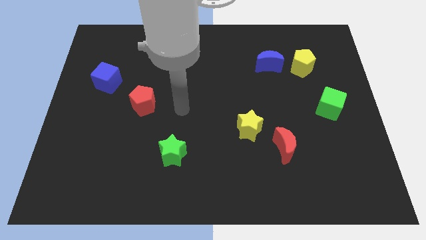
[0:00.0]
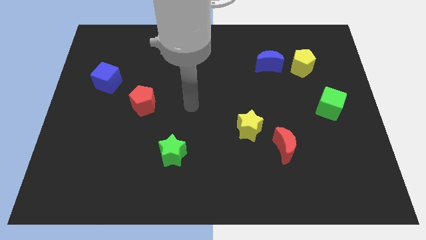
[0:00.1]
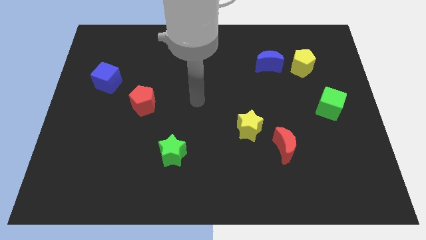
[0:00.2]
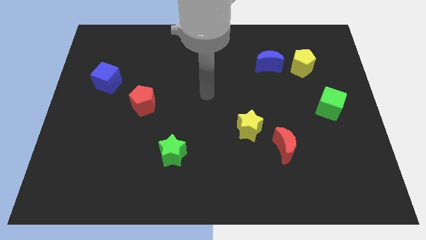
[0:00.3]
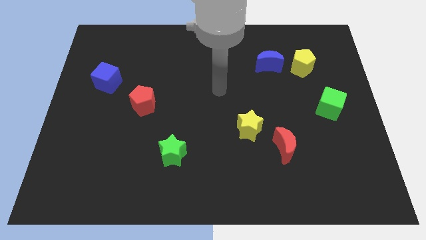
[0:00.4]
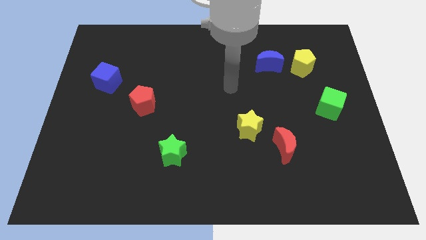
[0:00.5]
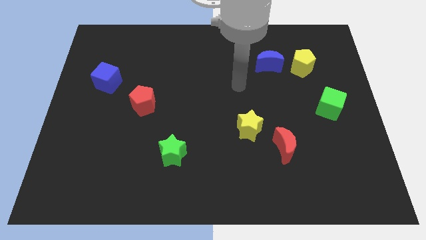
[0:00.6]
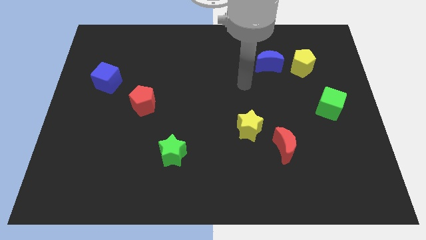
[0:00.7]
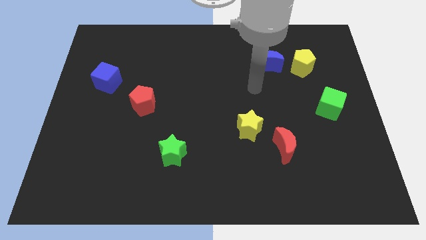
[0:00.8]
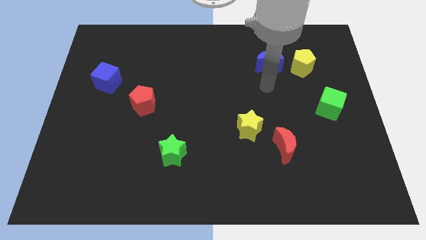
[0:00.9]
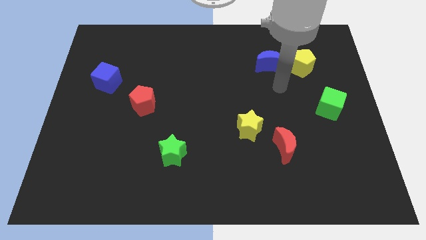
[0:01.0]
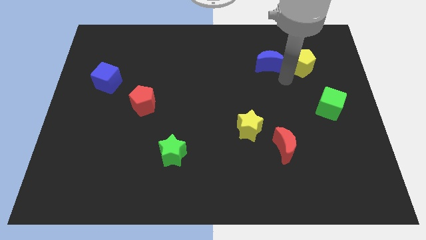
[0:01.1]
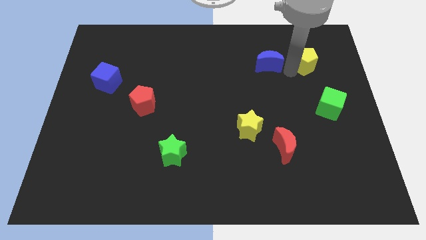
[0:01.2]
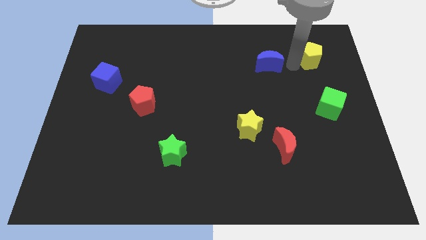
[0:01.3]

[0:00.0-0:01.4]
pull the blue moon apart from the yellow pentagon

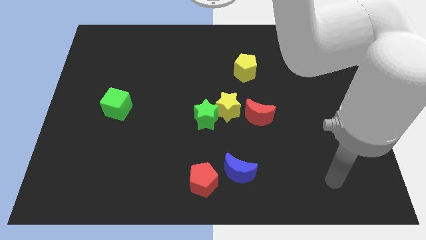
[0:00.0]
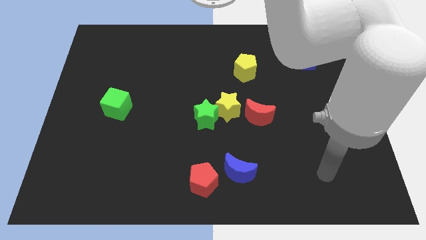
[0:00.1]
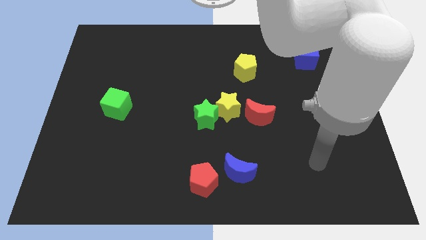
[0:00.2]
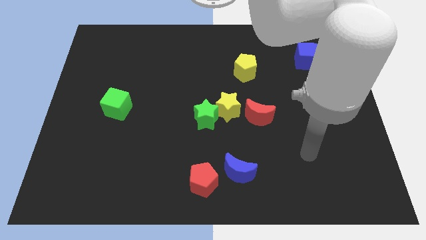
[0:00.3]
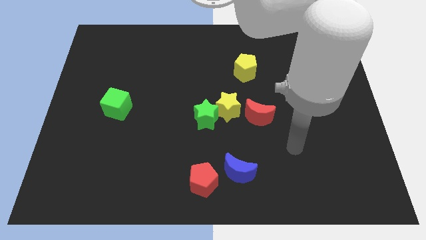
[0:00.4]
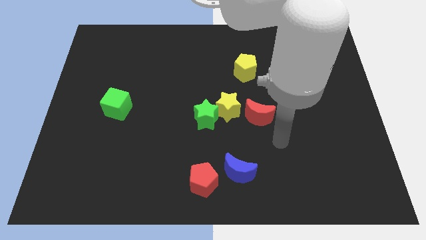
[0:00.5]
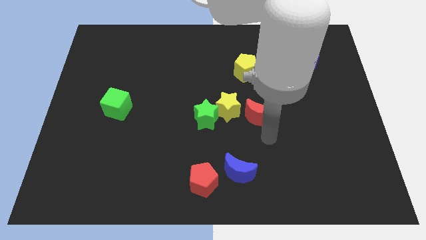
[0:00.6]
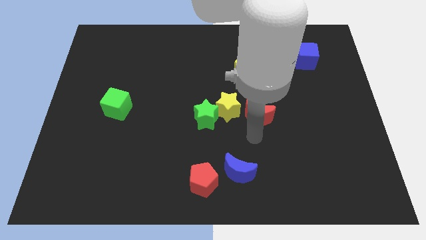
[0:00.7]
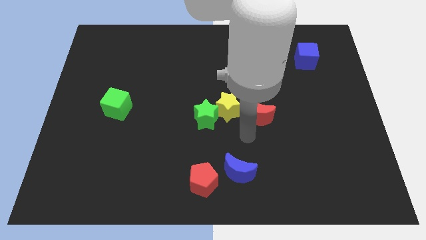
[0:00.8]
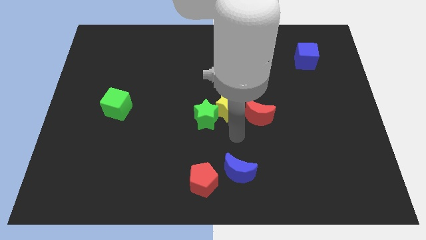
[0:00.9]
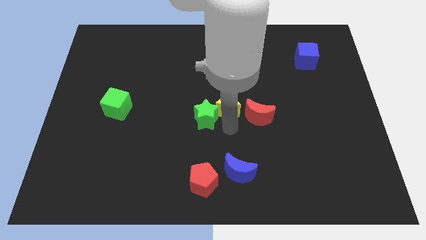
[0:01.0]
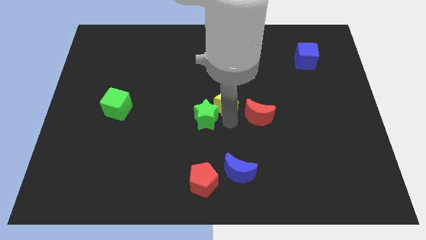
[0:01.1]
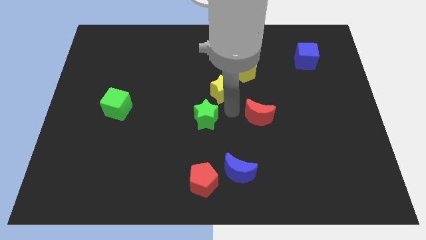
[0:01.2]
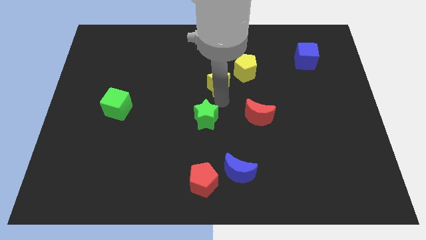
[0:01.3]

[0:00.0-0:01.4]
move the green star away from the yellow star

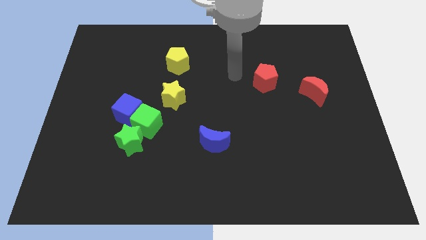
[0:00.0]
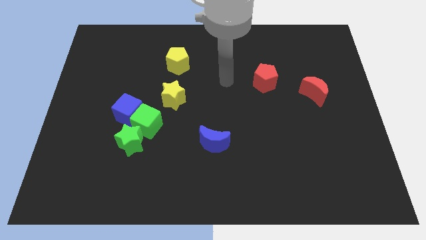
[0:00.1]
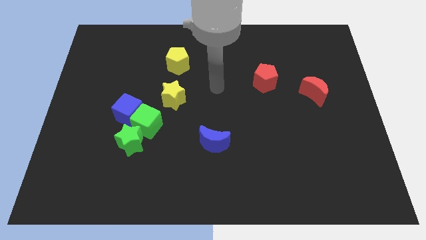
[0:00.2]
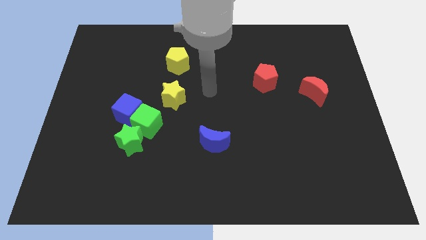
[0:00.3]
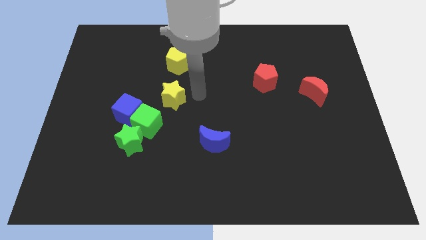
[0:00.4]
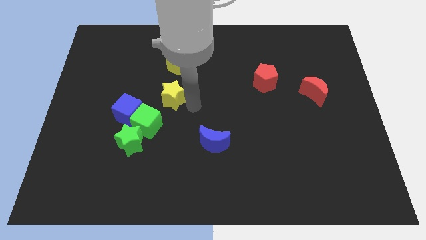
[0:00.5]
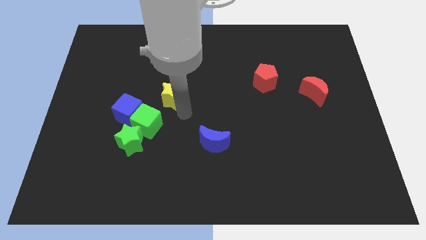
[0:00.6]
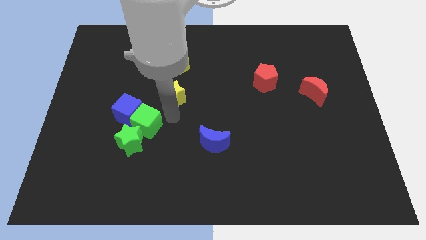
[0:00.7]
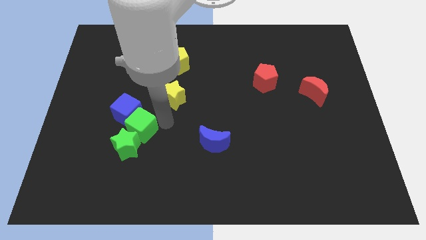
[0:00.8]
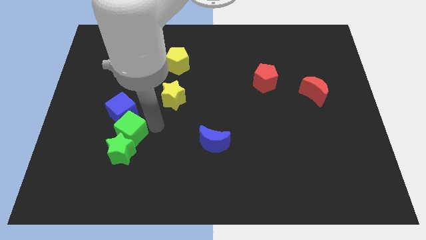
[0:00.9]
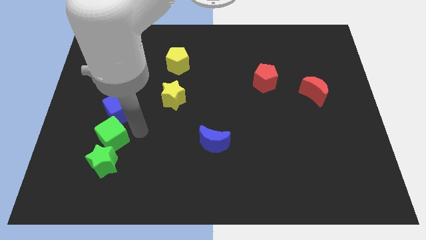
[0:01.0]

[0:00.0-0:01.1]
move the blue cube away from the green cube and green star

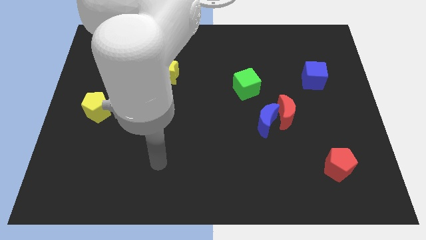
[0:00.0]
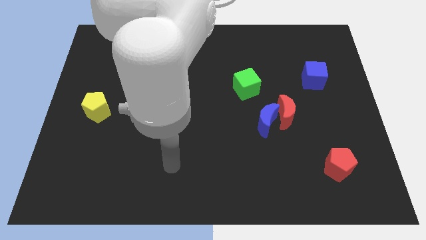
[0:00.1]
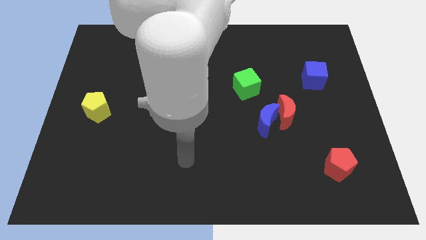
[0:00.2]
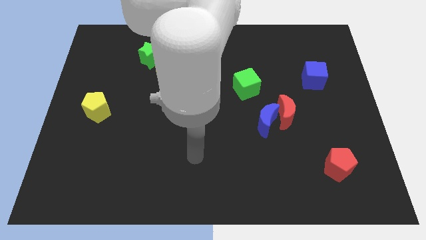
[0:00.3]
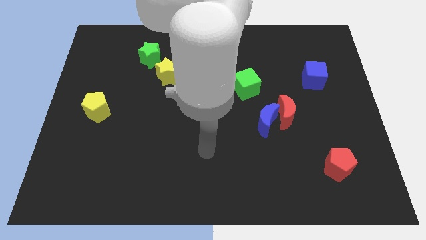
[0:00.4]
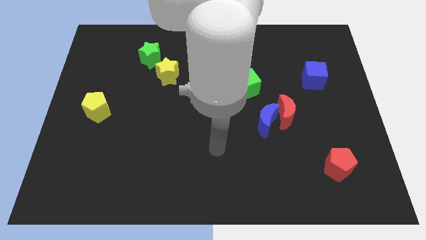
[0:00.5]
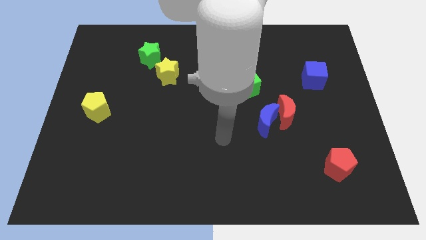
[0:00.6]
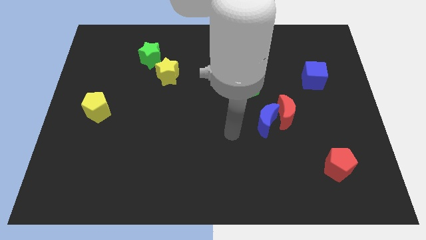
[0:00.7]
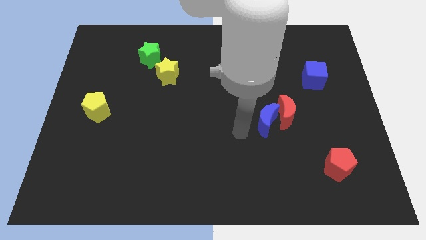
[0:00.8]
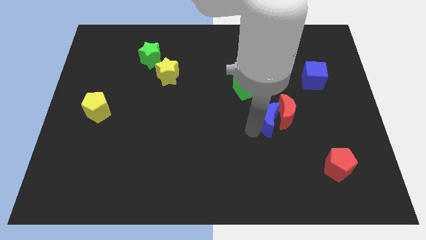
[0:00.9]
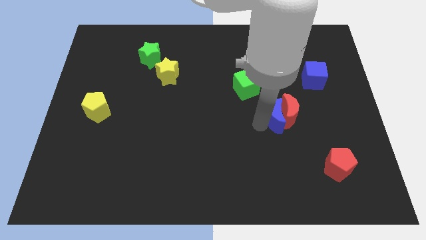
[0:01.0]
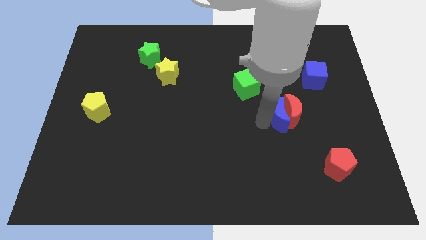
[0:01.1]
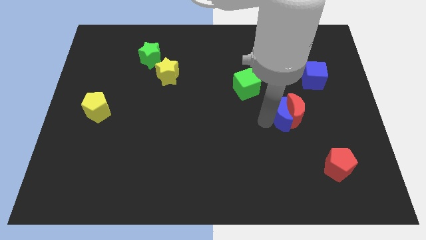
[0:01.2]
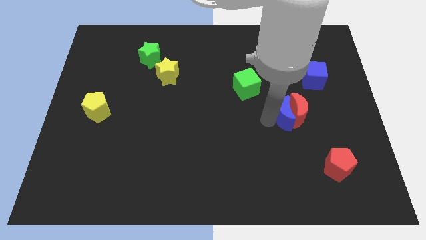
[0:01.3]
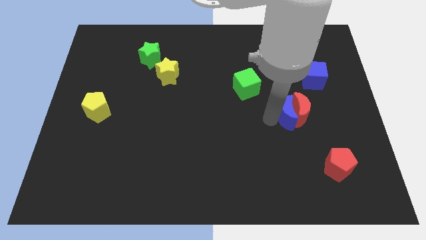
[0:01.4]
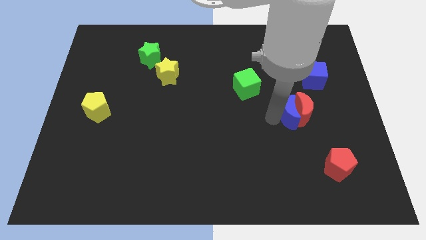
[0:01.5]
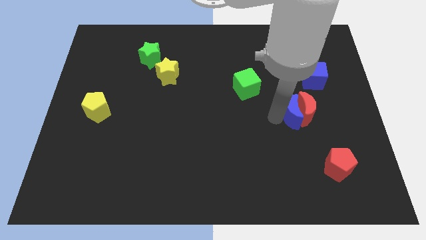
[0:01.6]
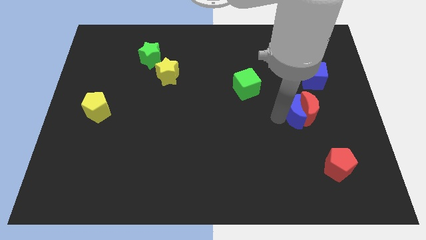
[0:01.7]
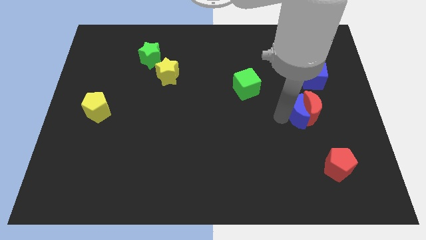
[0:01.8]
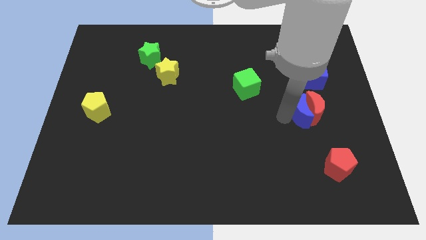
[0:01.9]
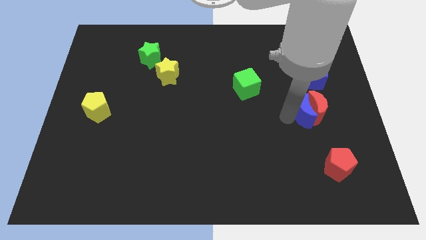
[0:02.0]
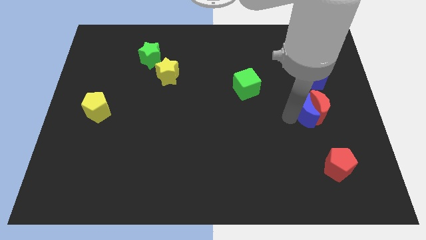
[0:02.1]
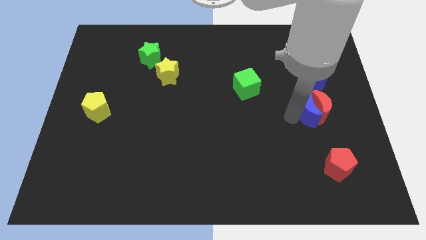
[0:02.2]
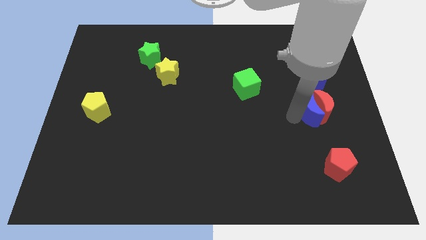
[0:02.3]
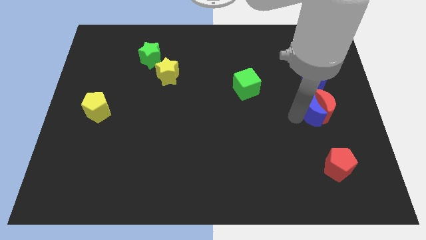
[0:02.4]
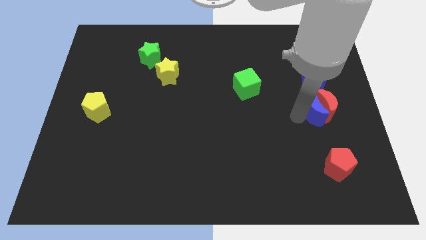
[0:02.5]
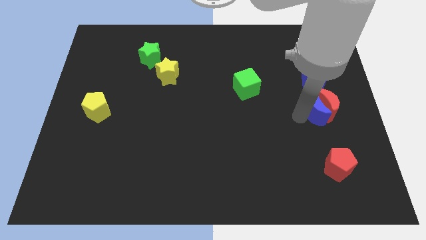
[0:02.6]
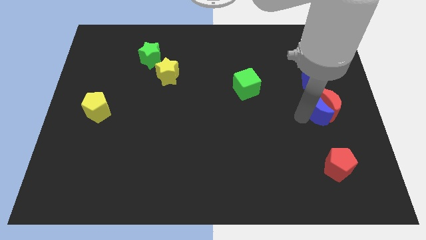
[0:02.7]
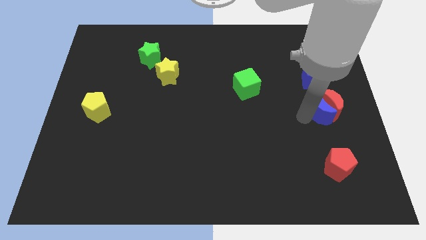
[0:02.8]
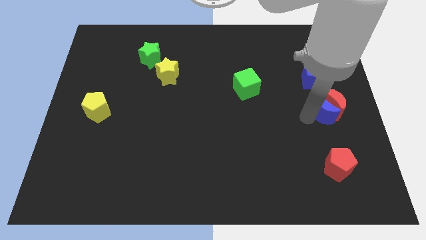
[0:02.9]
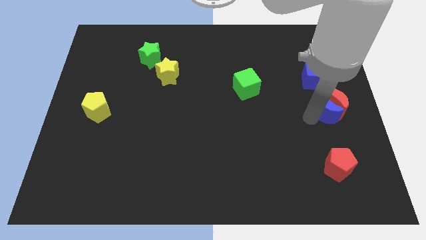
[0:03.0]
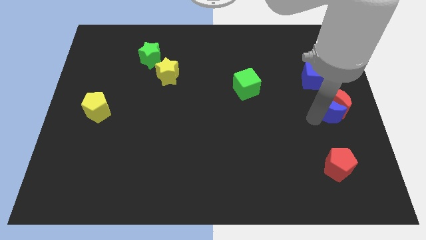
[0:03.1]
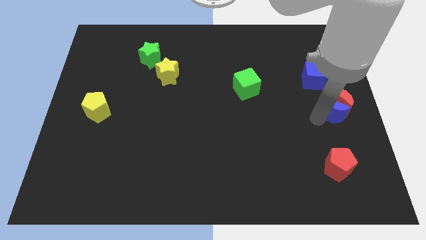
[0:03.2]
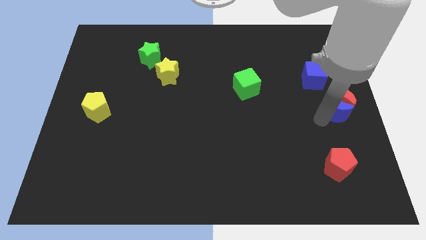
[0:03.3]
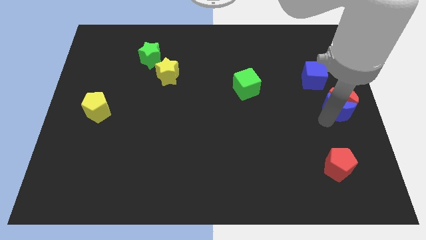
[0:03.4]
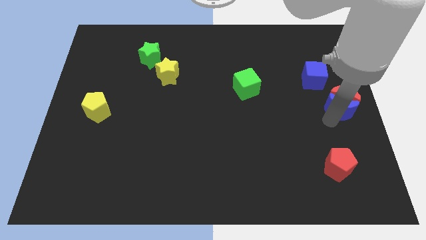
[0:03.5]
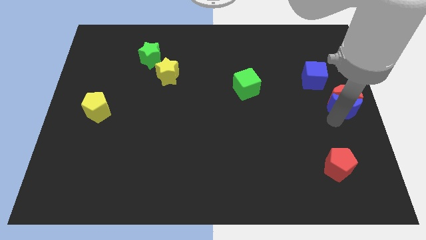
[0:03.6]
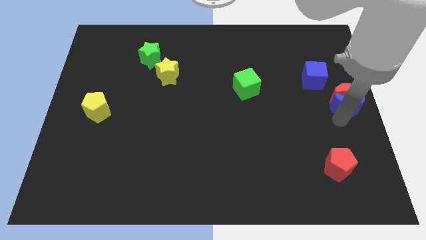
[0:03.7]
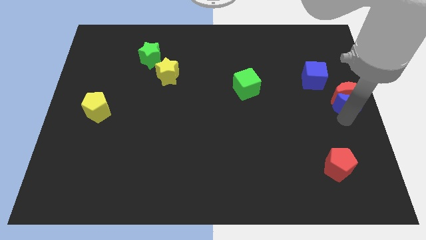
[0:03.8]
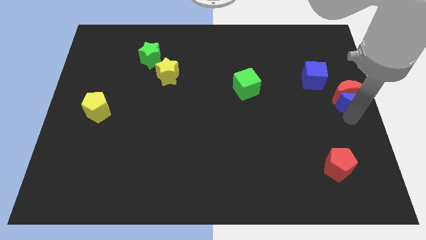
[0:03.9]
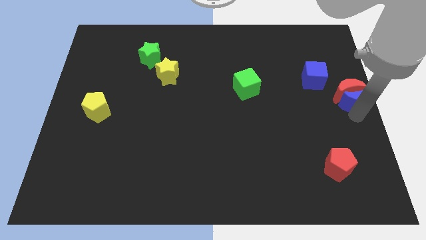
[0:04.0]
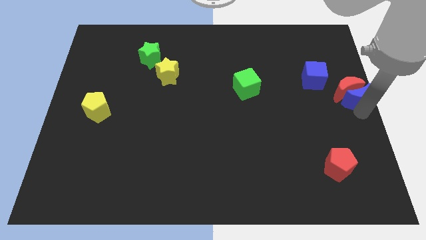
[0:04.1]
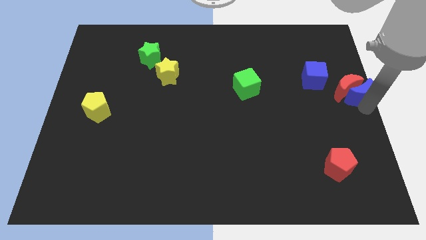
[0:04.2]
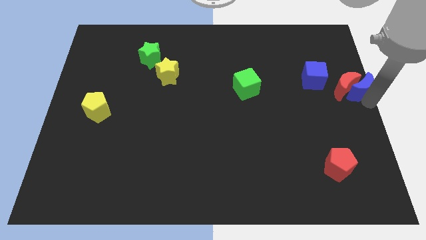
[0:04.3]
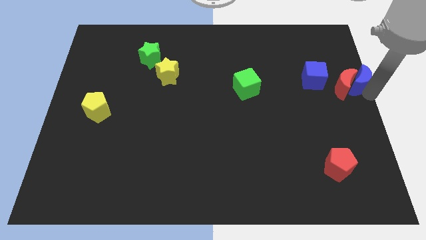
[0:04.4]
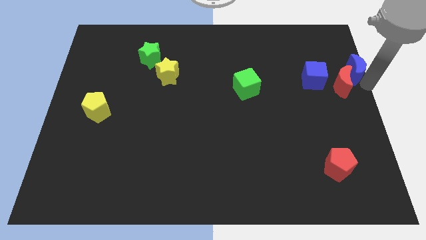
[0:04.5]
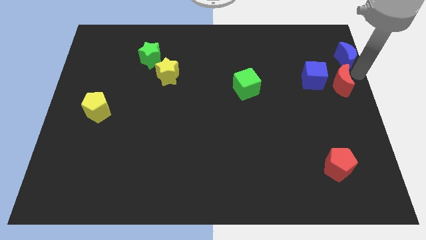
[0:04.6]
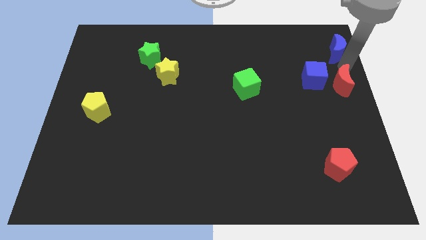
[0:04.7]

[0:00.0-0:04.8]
separate the red moon from the blue moon

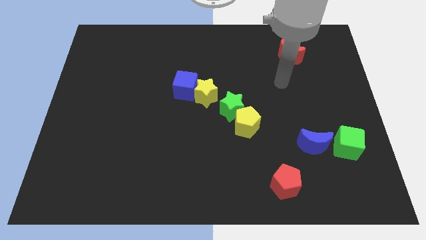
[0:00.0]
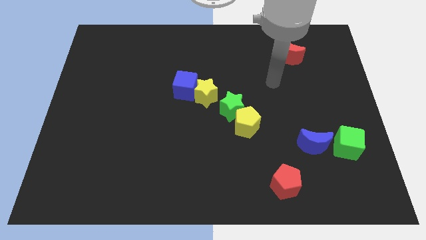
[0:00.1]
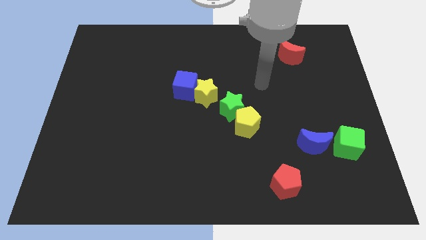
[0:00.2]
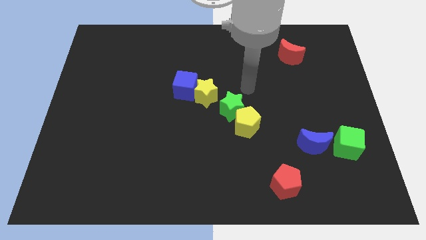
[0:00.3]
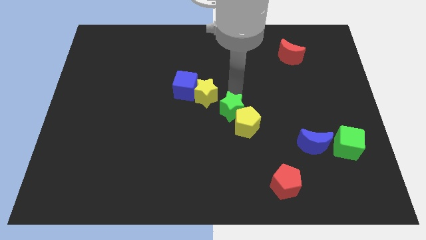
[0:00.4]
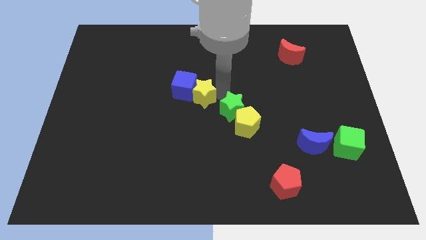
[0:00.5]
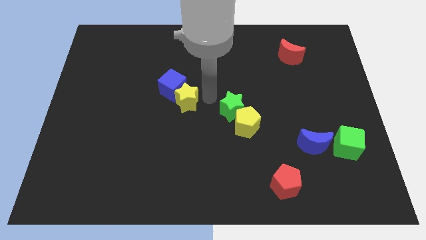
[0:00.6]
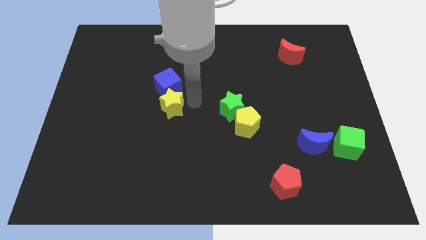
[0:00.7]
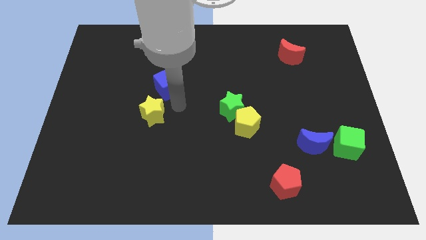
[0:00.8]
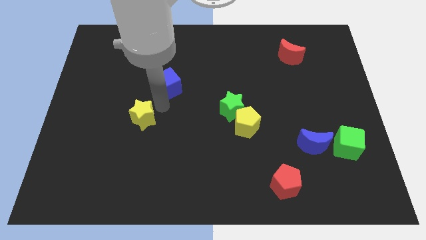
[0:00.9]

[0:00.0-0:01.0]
pull the blue cube apart from the yellow star
